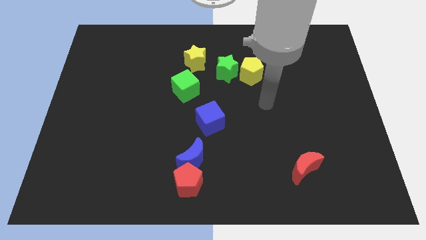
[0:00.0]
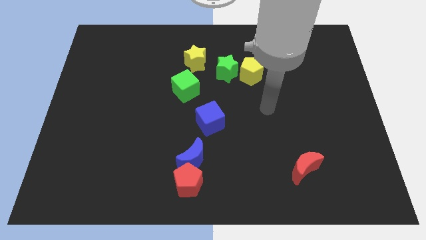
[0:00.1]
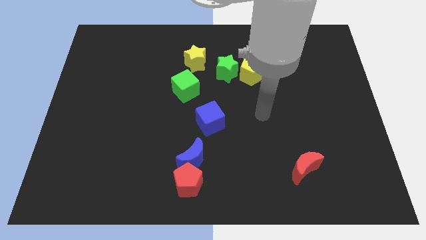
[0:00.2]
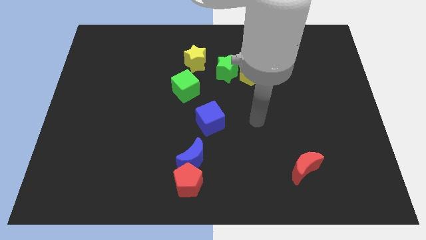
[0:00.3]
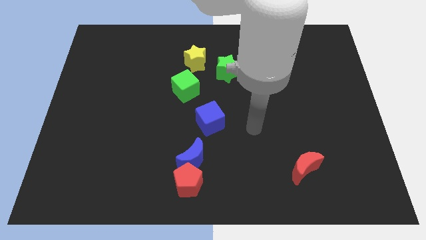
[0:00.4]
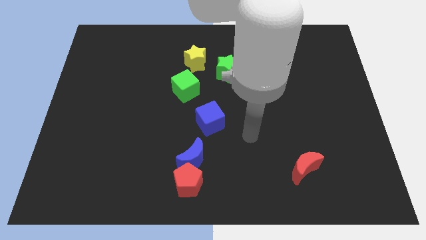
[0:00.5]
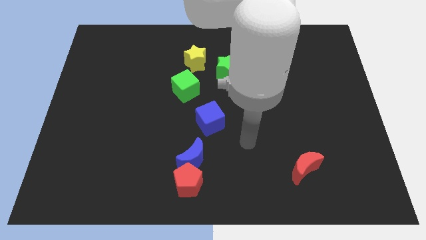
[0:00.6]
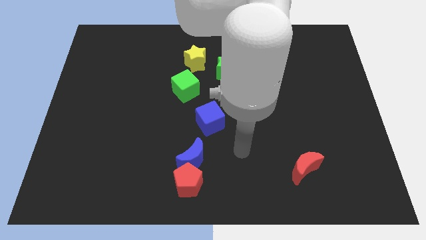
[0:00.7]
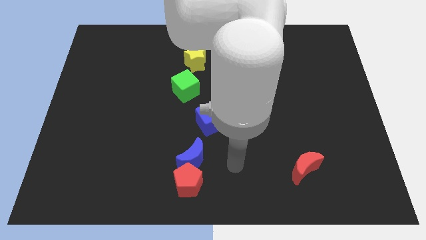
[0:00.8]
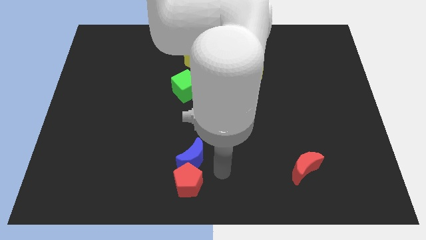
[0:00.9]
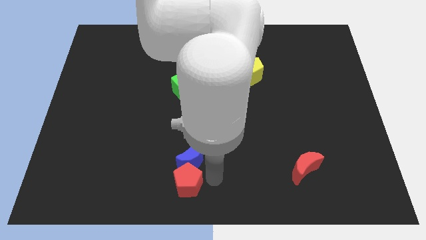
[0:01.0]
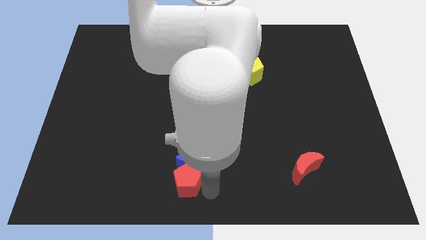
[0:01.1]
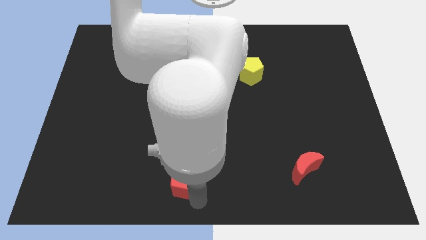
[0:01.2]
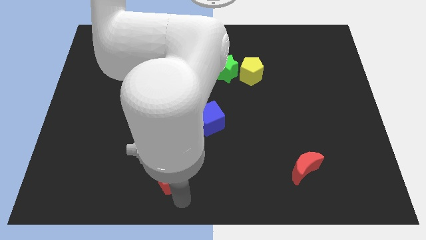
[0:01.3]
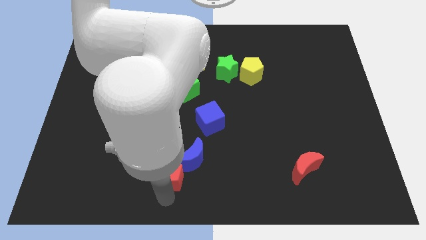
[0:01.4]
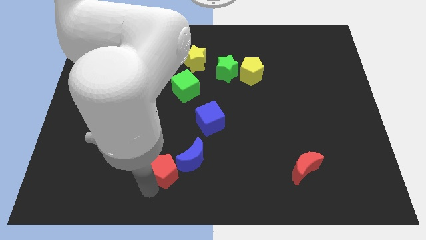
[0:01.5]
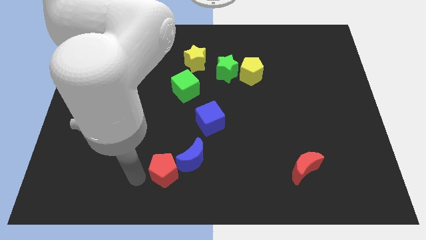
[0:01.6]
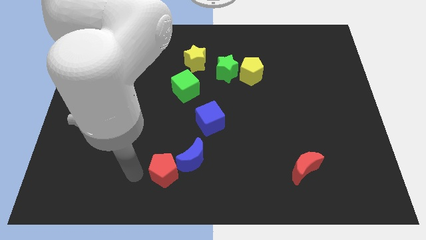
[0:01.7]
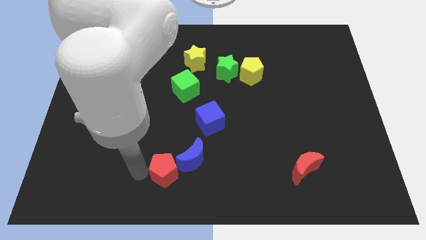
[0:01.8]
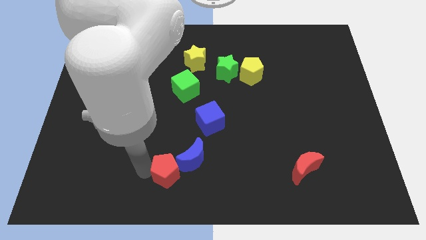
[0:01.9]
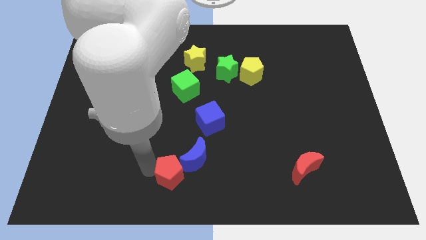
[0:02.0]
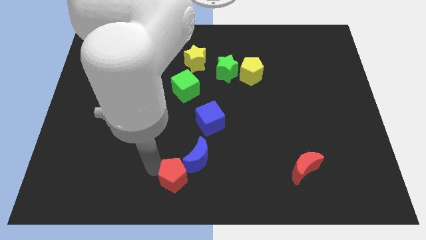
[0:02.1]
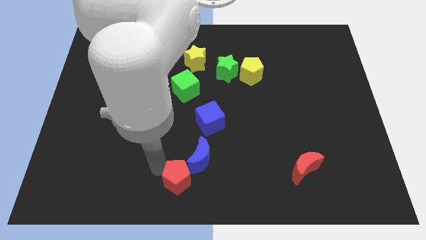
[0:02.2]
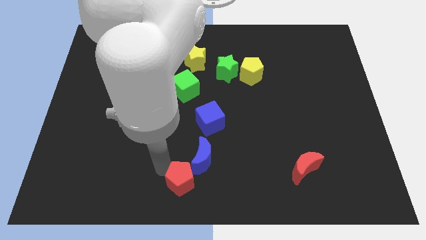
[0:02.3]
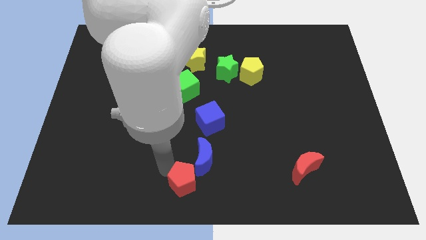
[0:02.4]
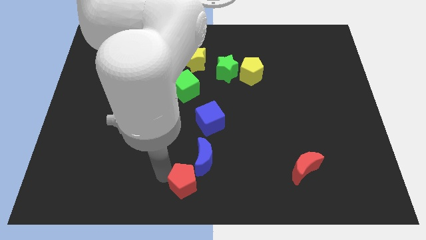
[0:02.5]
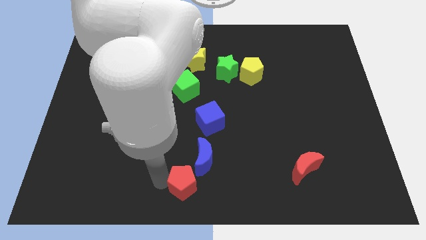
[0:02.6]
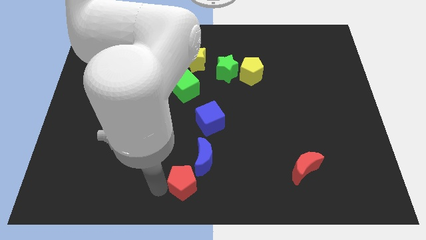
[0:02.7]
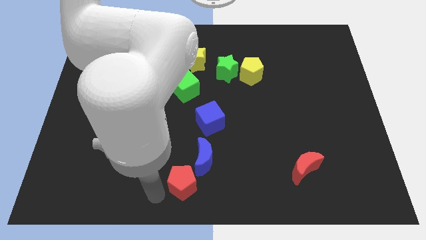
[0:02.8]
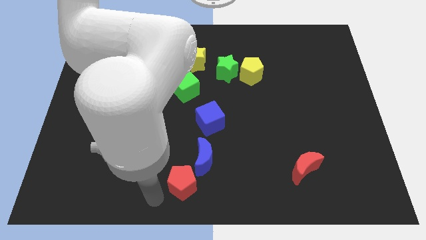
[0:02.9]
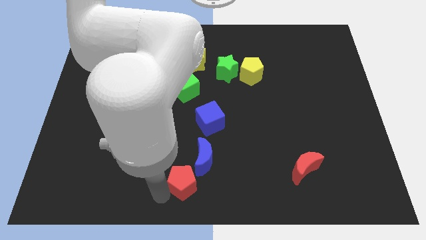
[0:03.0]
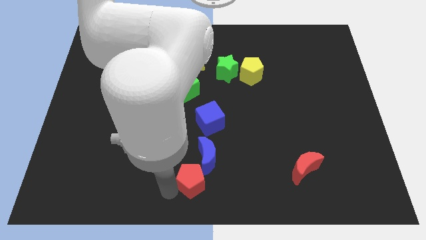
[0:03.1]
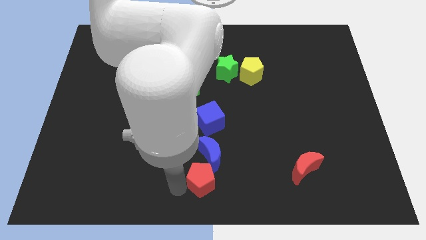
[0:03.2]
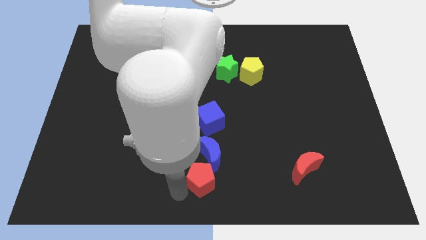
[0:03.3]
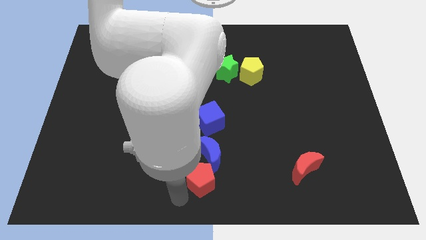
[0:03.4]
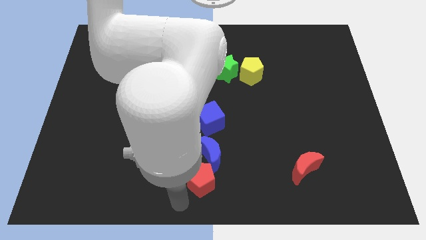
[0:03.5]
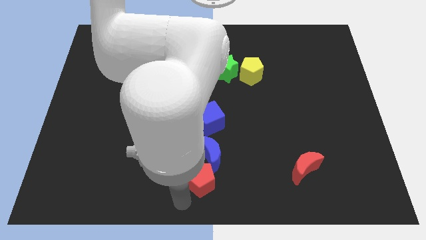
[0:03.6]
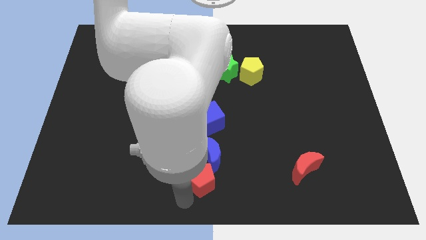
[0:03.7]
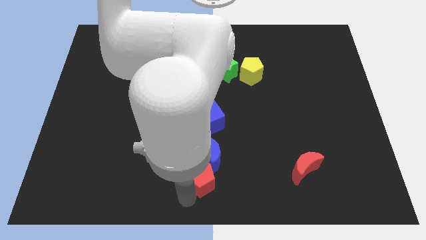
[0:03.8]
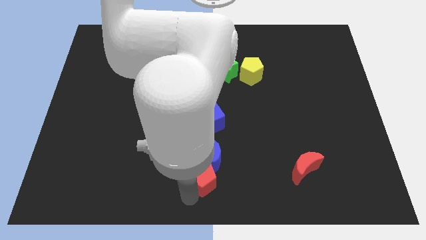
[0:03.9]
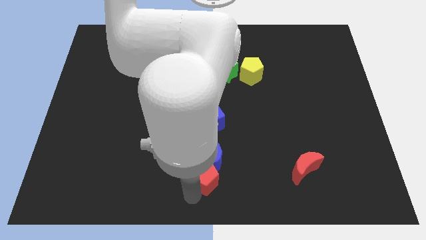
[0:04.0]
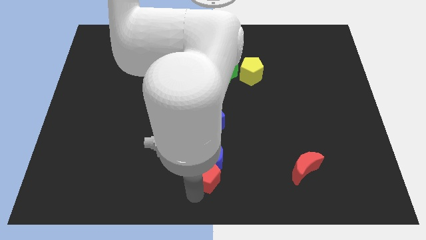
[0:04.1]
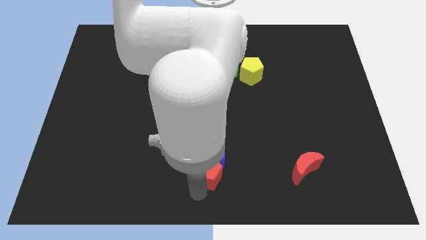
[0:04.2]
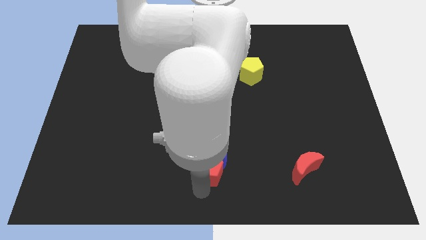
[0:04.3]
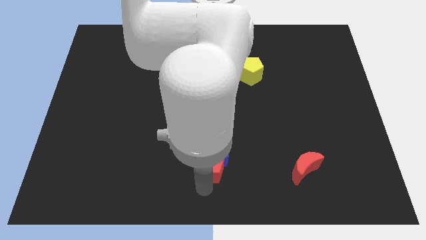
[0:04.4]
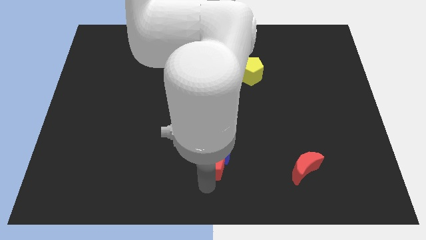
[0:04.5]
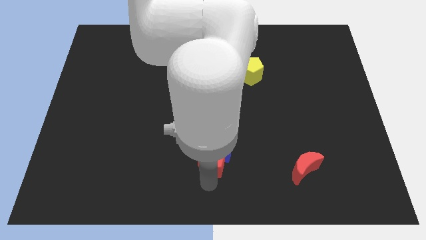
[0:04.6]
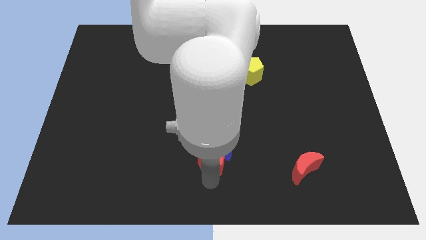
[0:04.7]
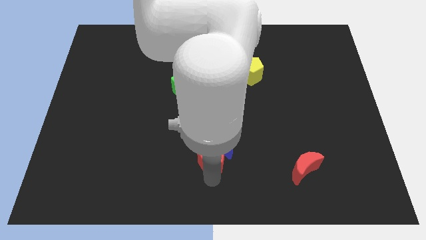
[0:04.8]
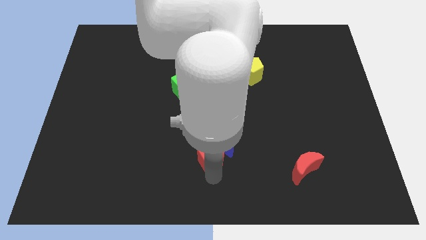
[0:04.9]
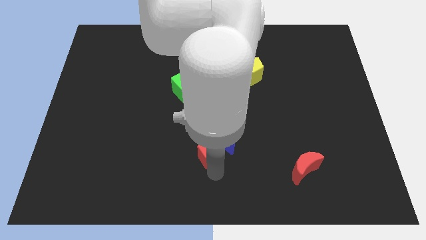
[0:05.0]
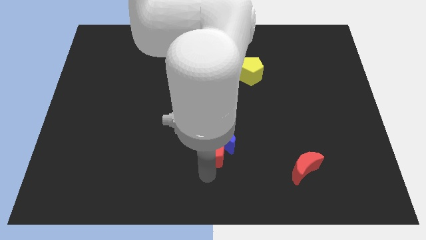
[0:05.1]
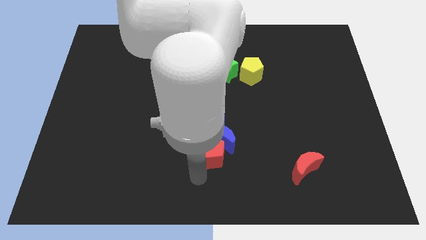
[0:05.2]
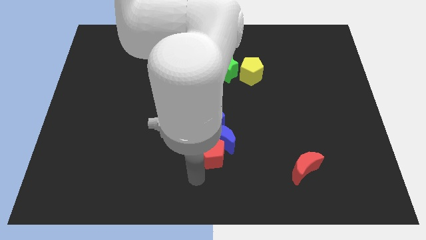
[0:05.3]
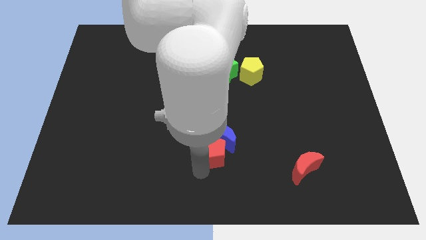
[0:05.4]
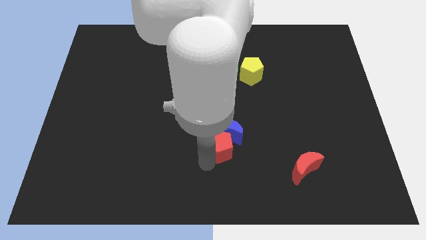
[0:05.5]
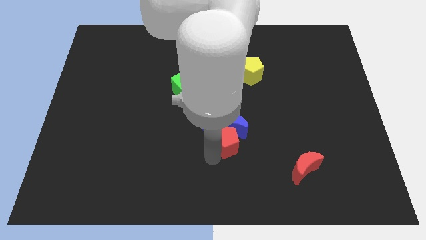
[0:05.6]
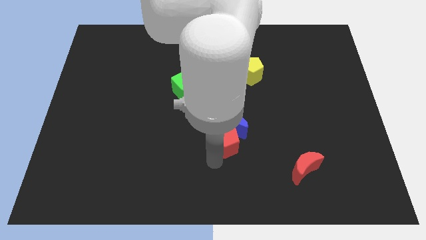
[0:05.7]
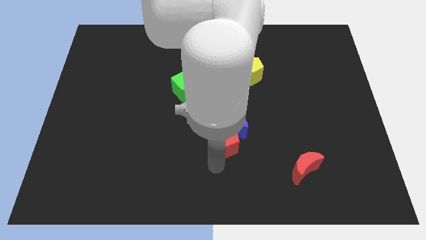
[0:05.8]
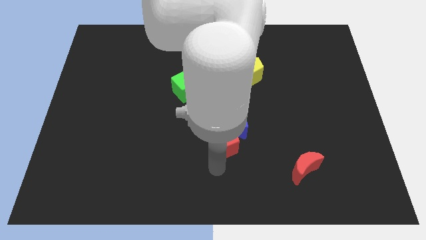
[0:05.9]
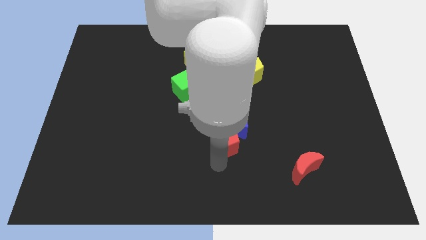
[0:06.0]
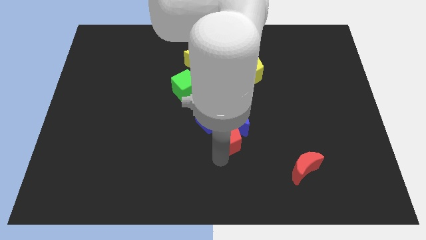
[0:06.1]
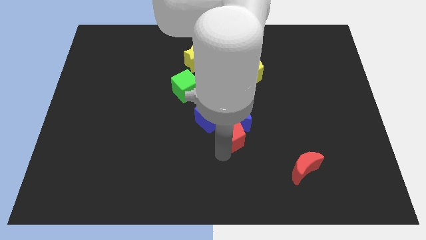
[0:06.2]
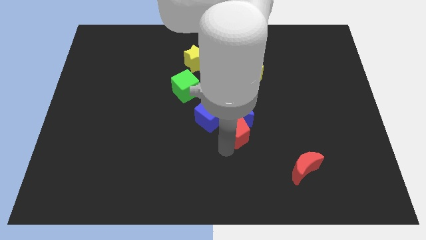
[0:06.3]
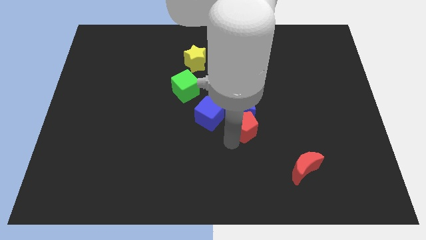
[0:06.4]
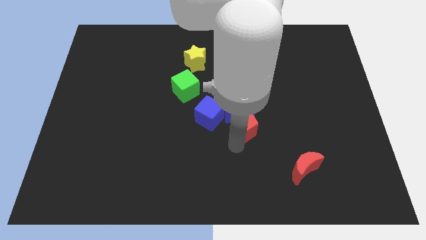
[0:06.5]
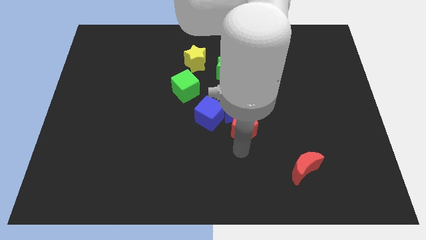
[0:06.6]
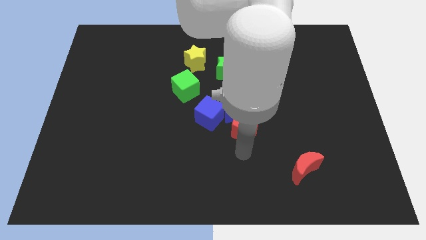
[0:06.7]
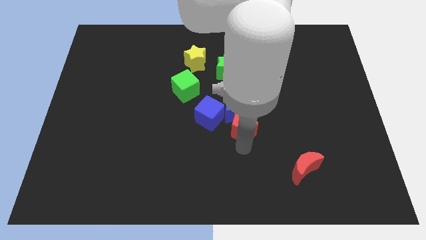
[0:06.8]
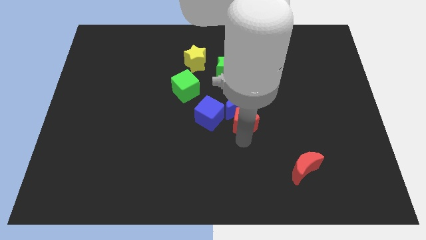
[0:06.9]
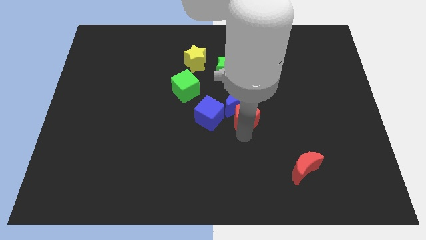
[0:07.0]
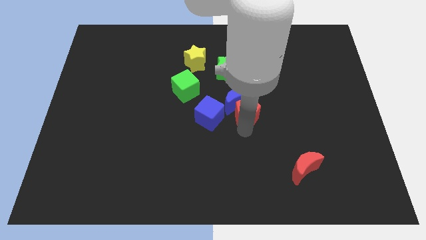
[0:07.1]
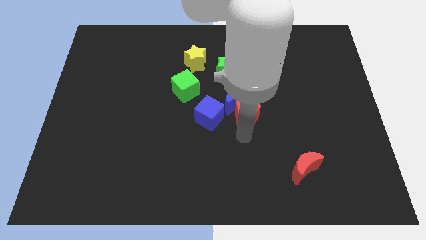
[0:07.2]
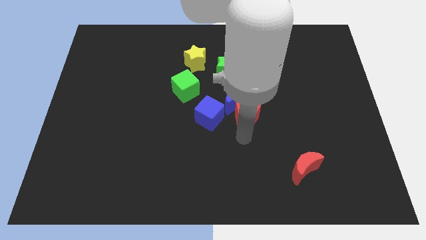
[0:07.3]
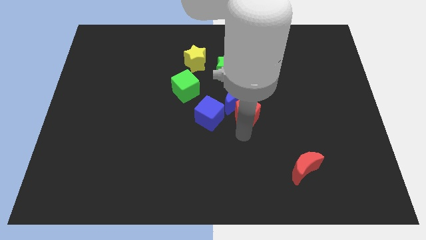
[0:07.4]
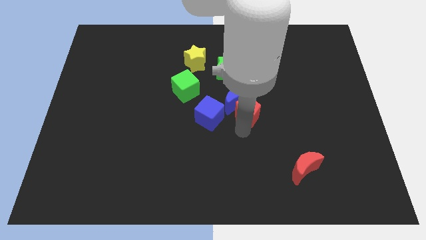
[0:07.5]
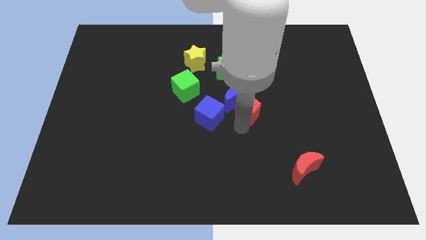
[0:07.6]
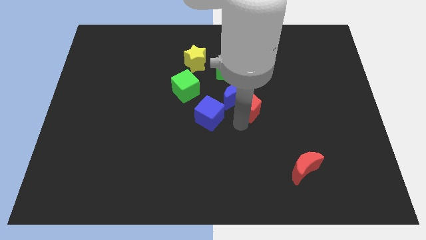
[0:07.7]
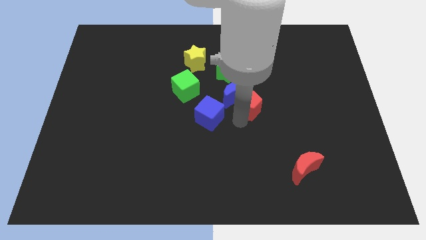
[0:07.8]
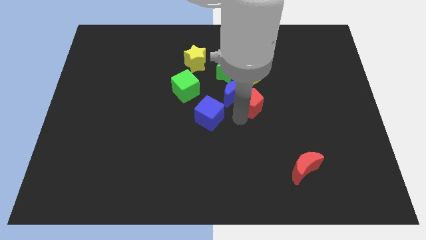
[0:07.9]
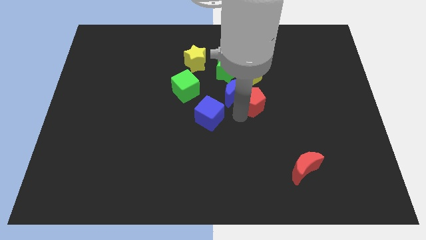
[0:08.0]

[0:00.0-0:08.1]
push the red pentagon to the bottom right side of the green star
